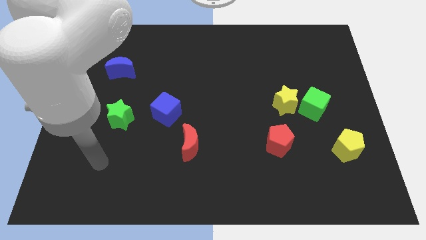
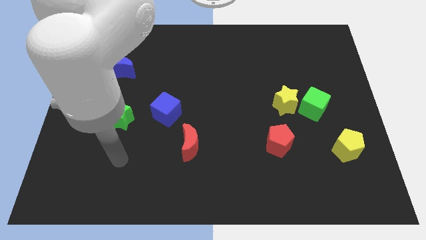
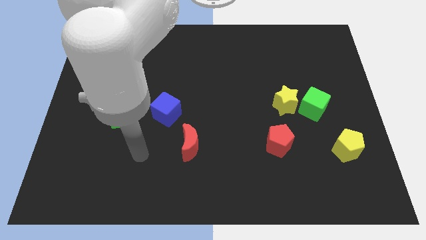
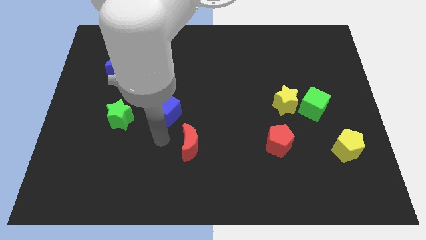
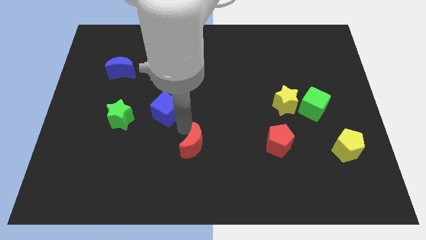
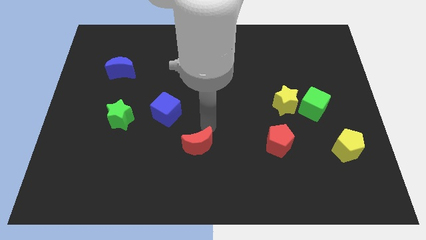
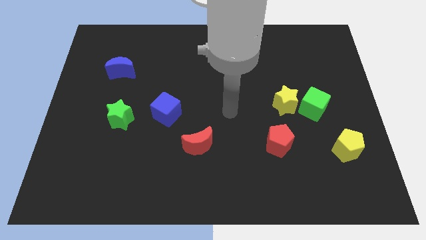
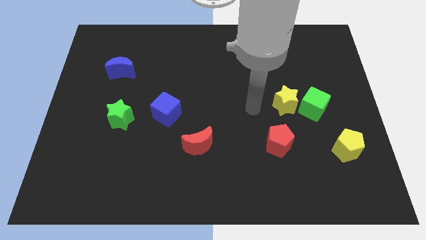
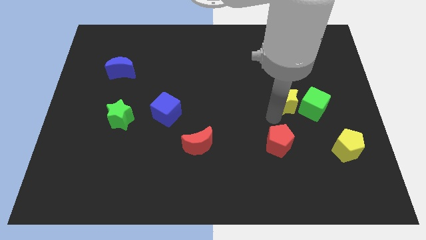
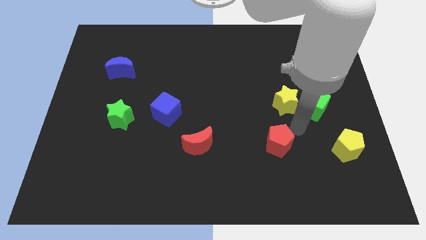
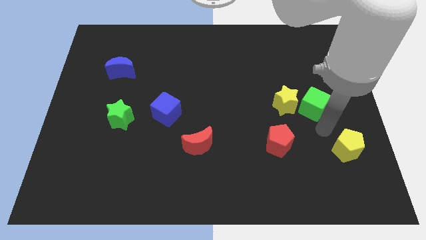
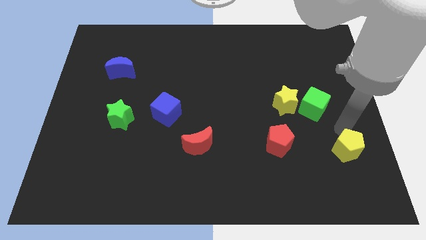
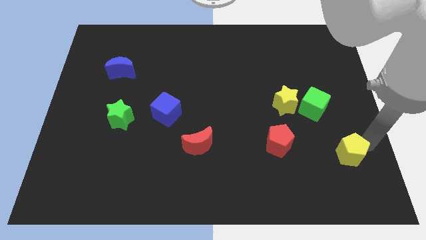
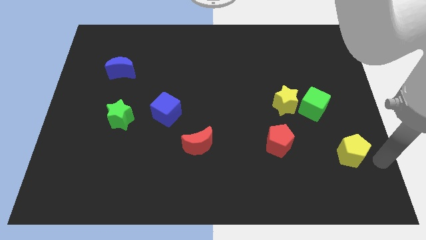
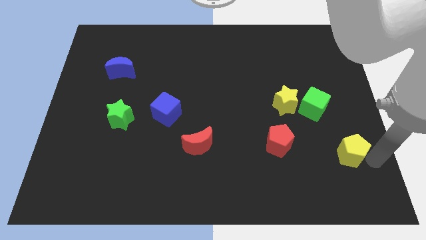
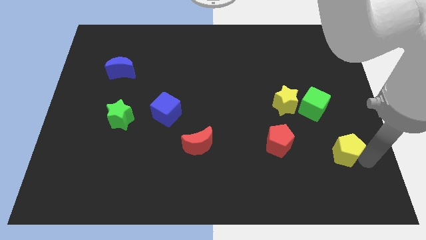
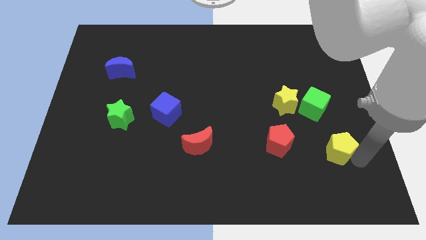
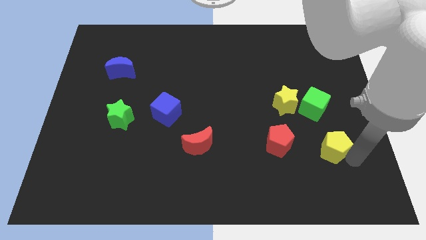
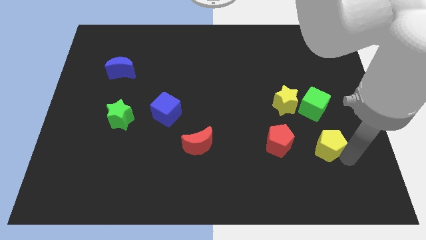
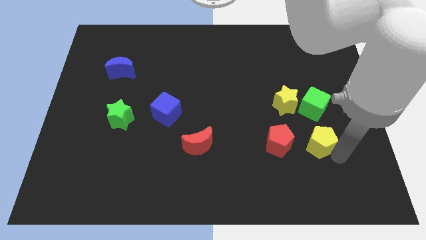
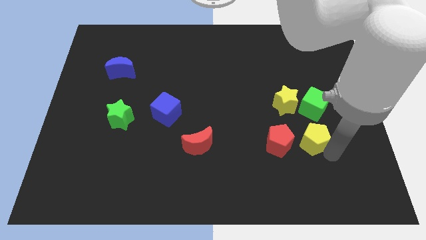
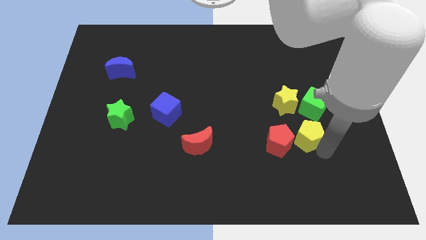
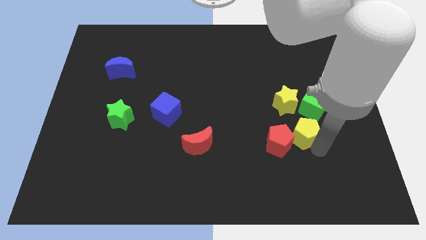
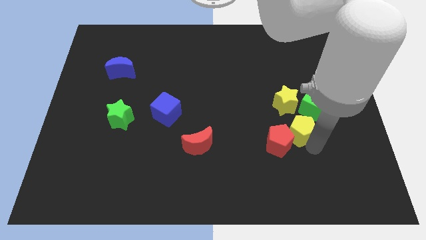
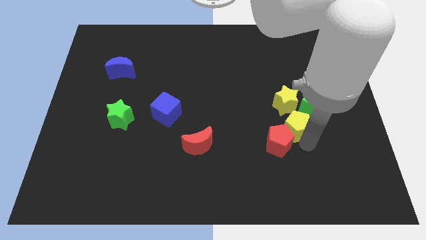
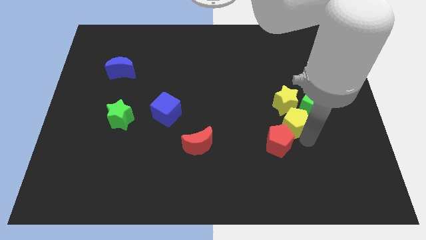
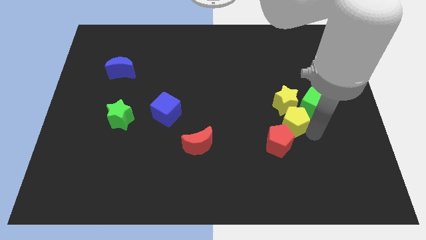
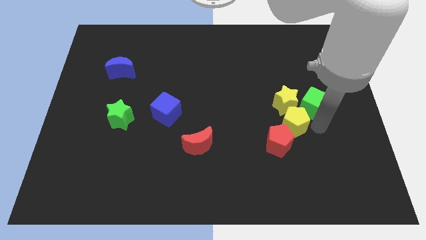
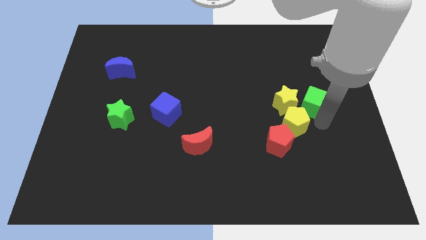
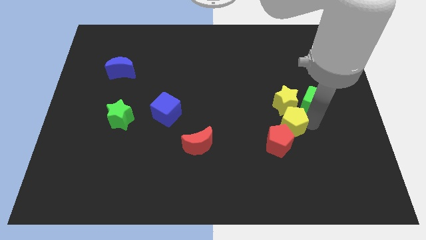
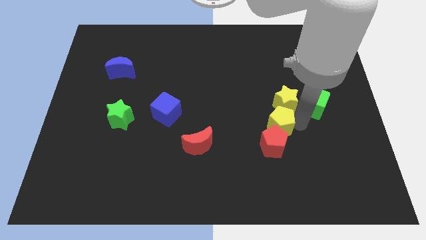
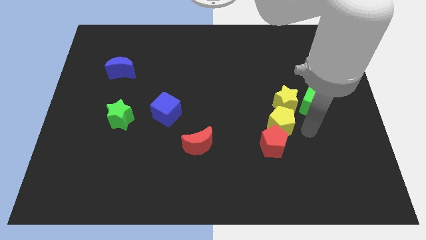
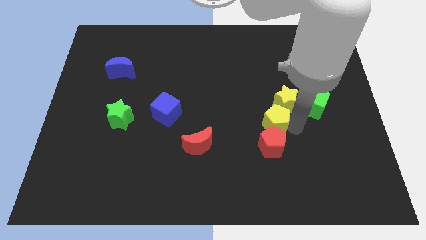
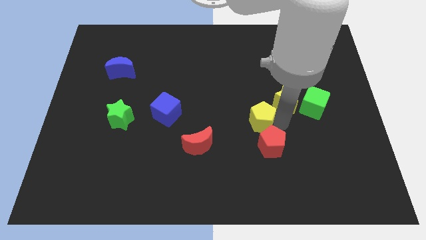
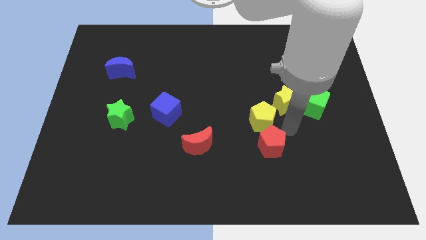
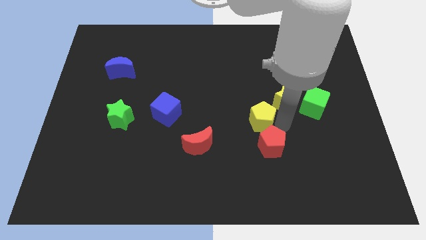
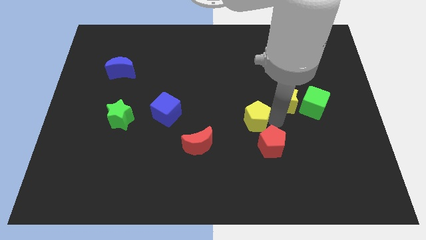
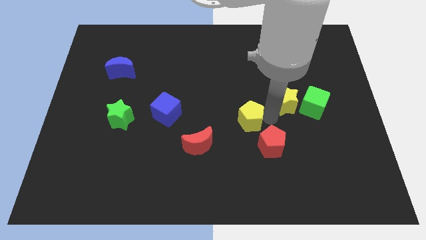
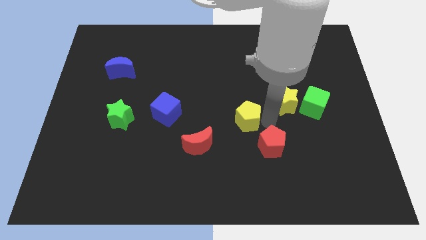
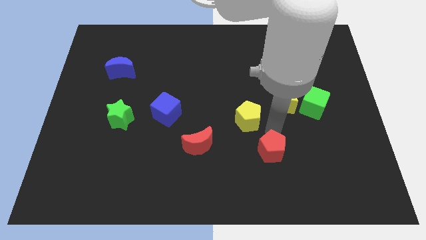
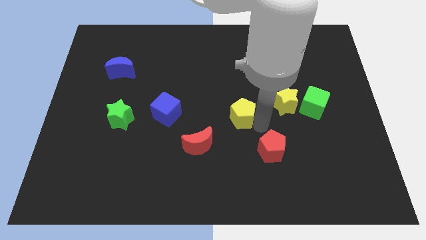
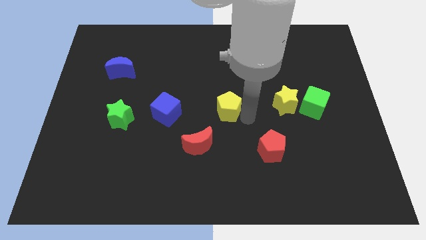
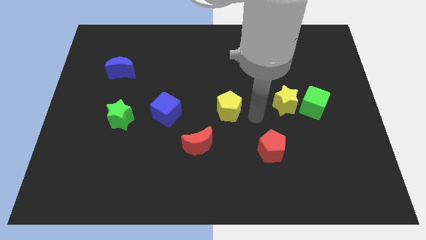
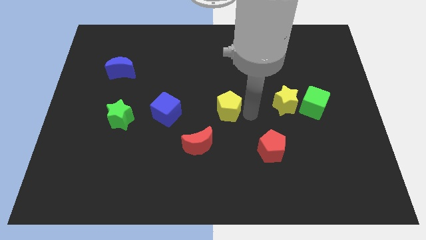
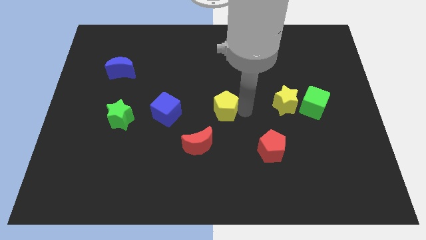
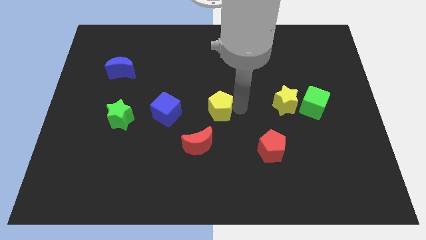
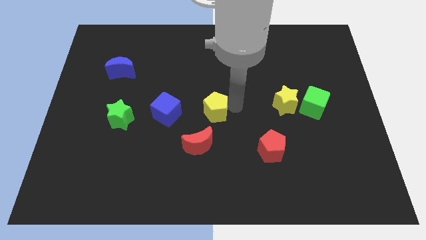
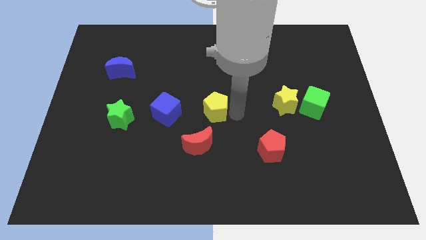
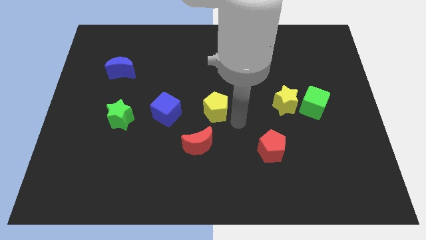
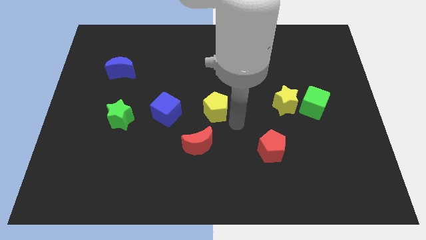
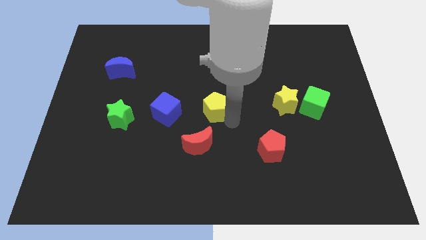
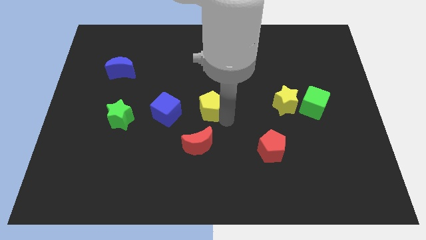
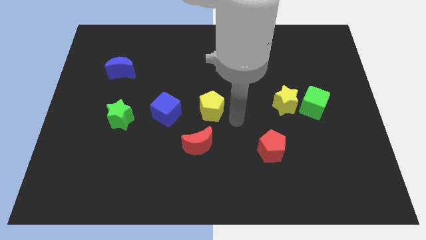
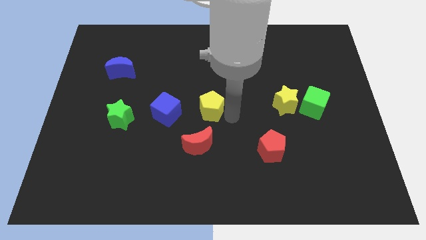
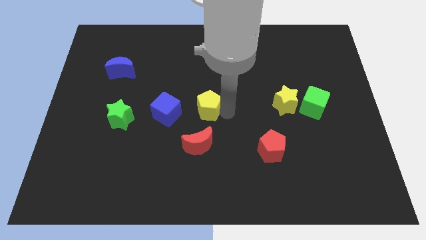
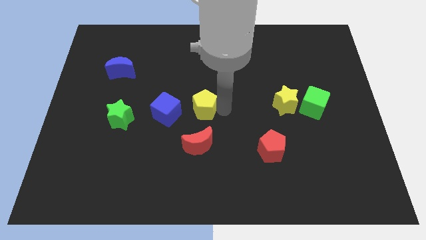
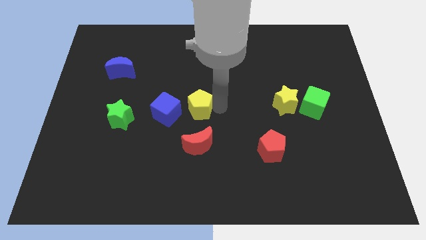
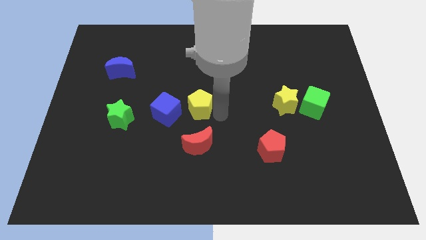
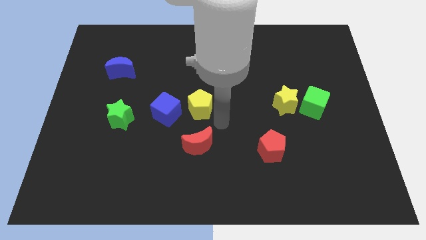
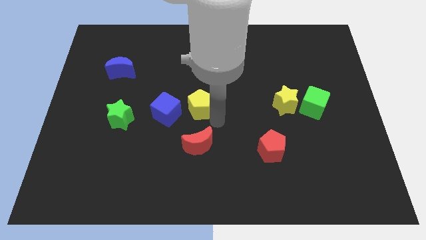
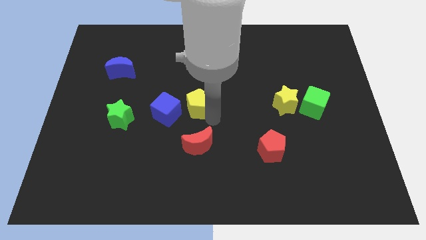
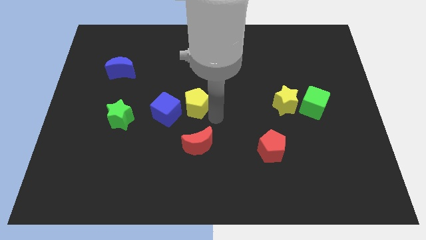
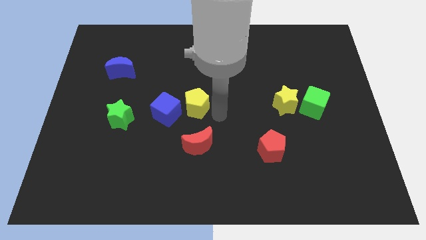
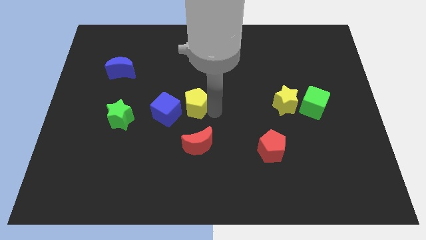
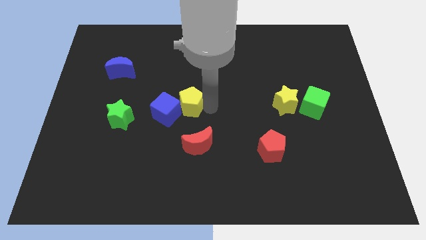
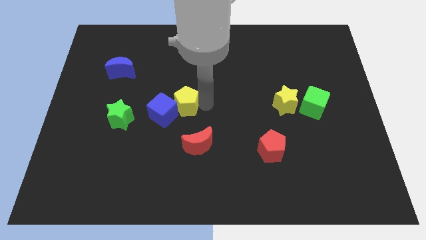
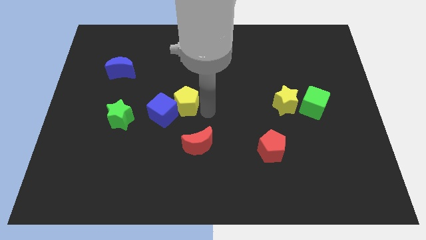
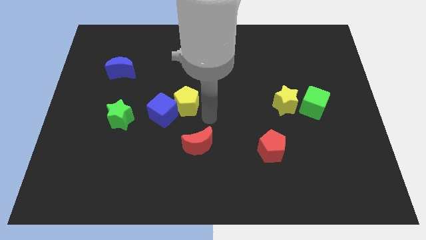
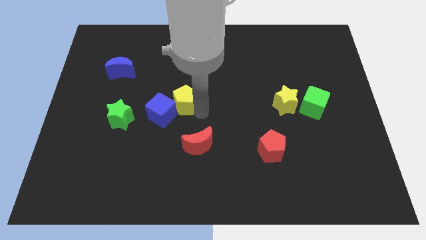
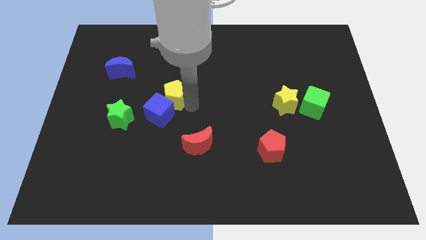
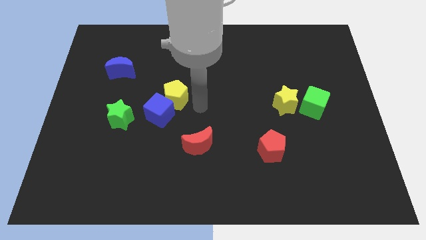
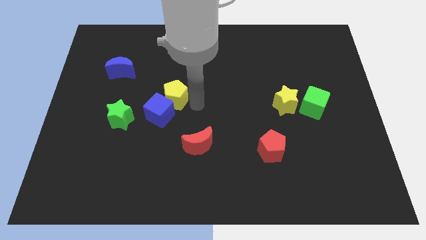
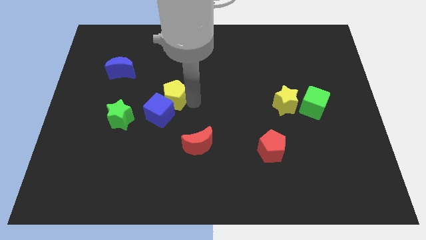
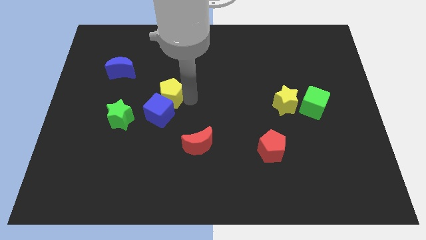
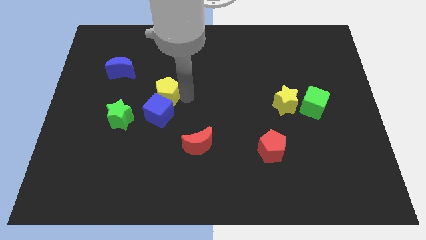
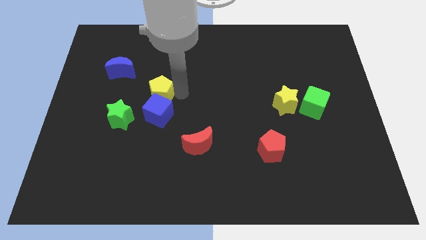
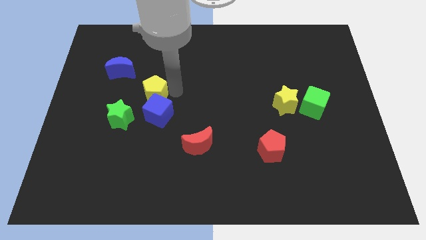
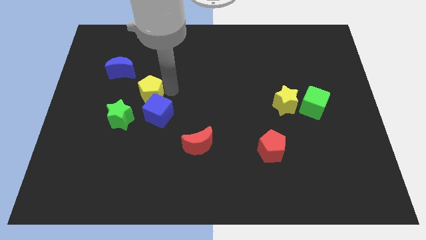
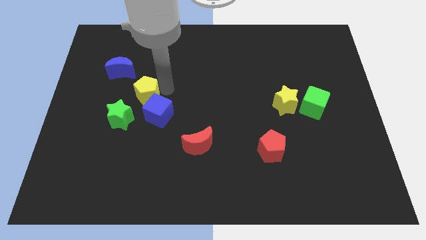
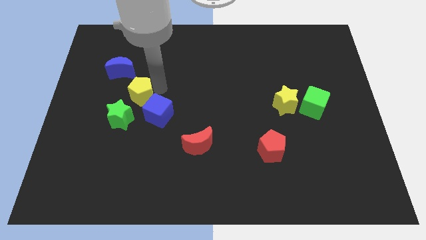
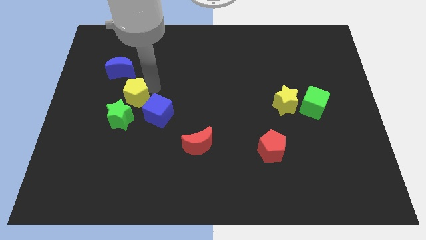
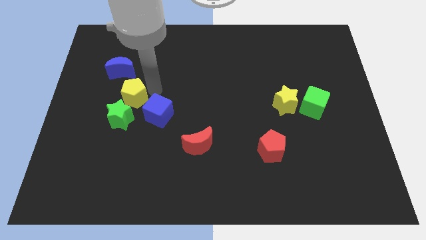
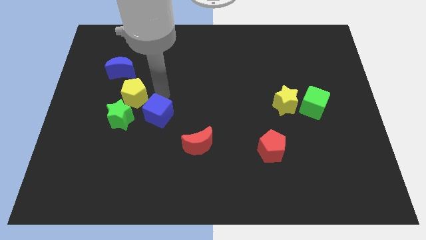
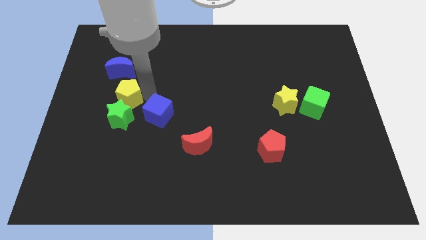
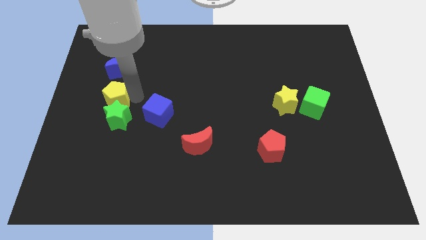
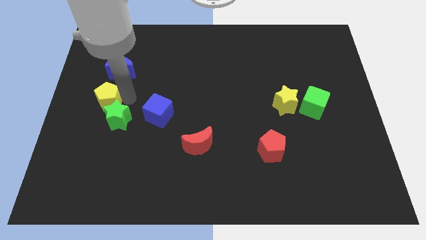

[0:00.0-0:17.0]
put the yellow pentagon to the left side
